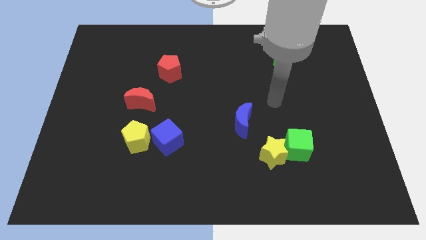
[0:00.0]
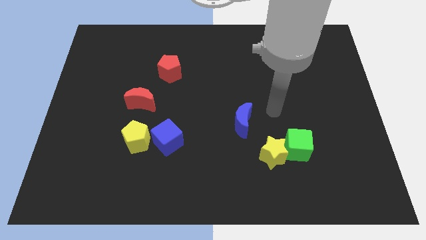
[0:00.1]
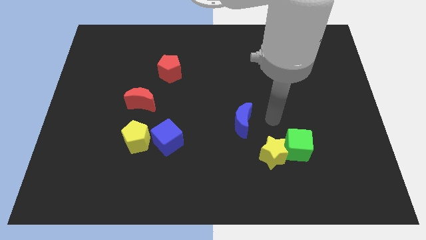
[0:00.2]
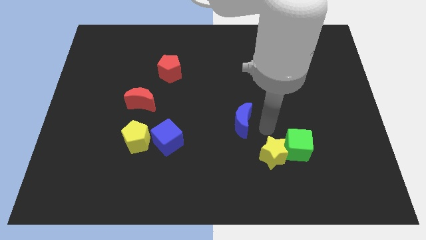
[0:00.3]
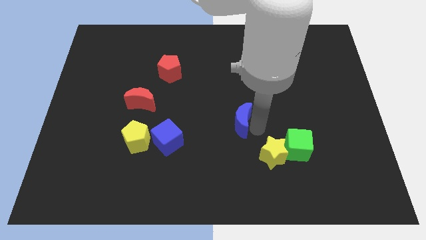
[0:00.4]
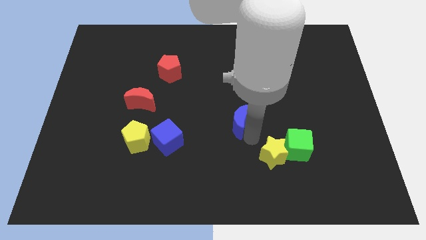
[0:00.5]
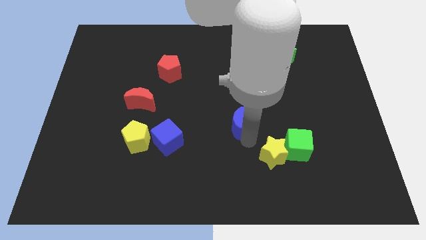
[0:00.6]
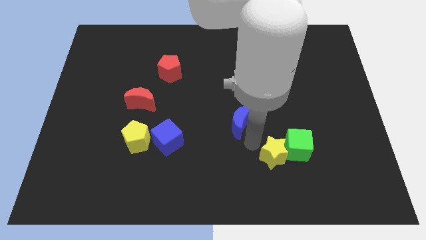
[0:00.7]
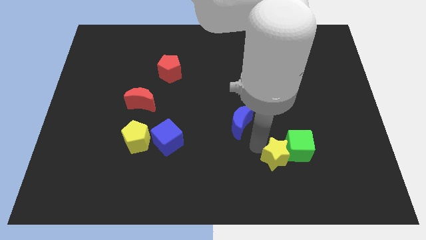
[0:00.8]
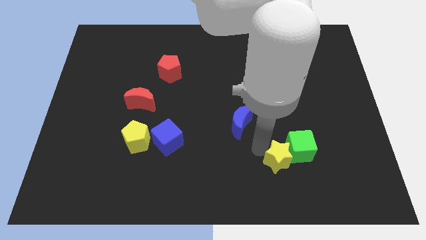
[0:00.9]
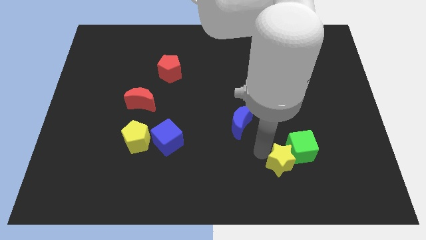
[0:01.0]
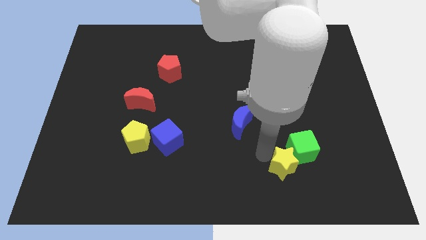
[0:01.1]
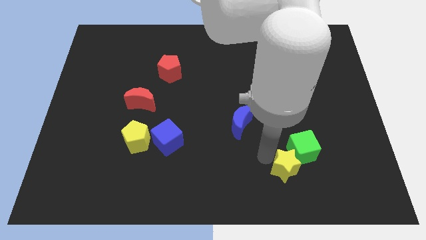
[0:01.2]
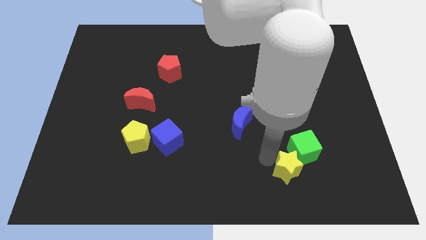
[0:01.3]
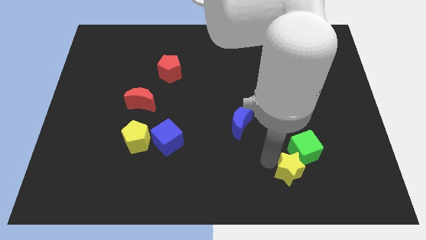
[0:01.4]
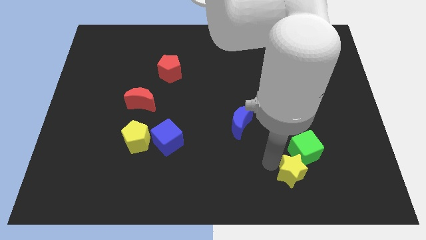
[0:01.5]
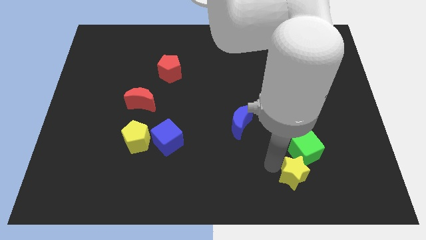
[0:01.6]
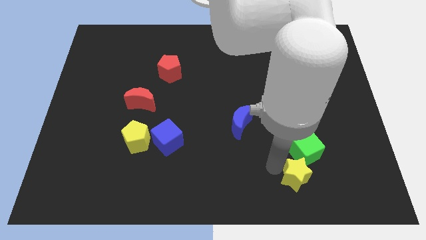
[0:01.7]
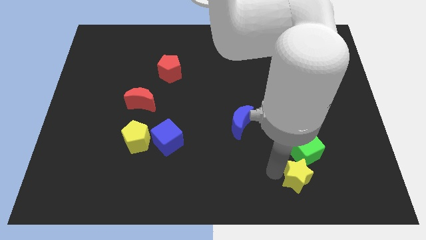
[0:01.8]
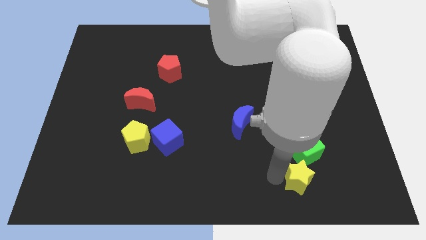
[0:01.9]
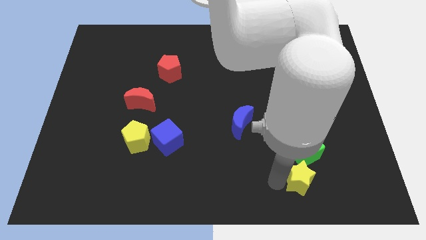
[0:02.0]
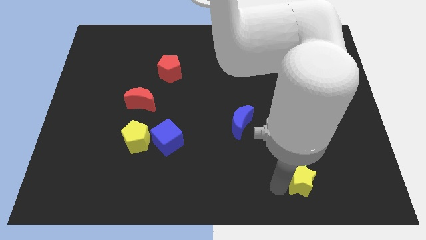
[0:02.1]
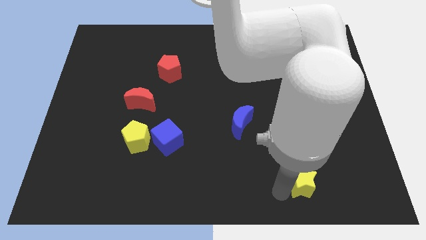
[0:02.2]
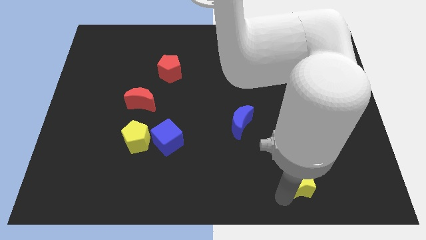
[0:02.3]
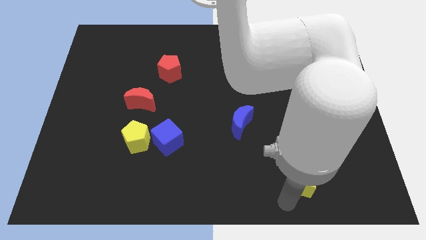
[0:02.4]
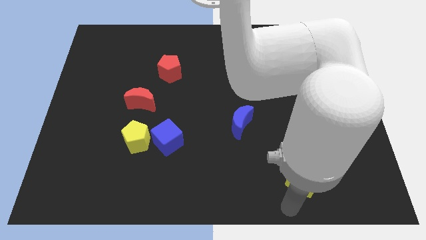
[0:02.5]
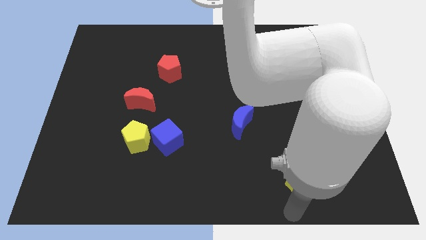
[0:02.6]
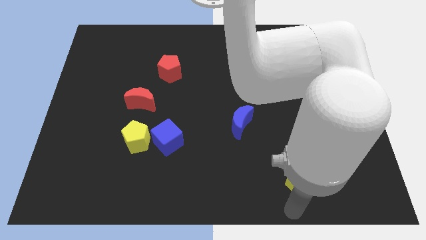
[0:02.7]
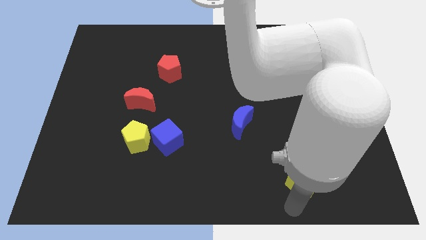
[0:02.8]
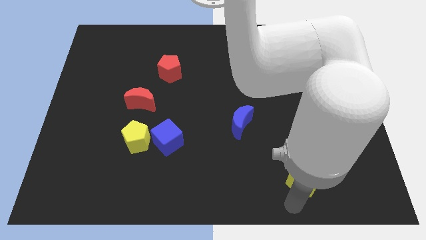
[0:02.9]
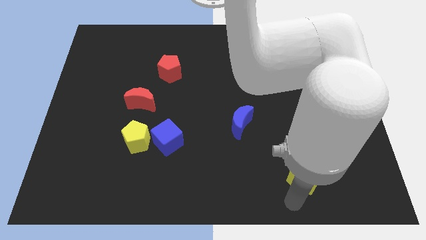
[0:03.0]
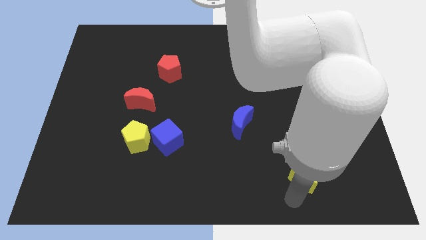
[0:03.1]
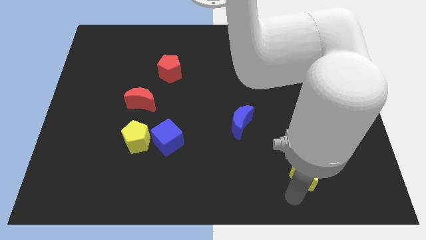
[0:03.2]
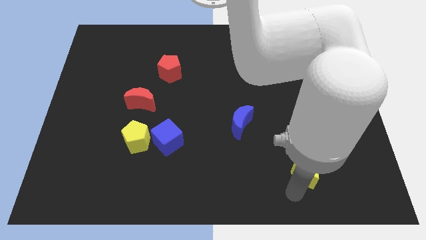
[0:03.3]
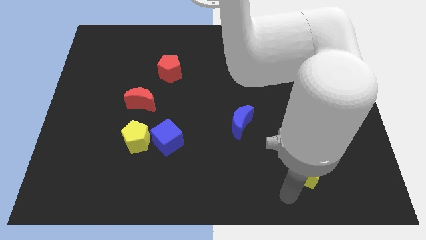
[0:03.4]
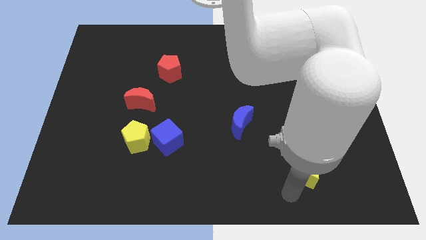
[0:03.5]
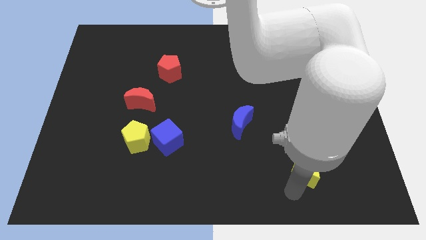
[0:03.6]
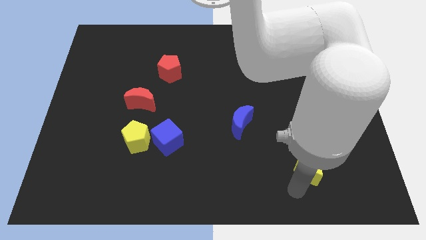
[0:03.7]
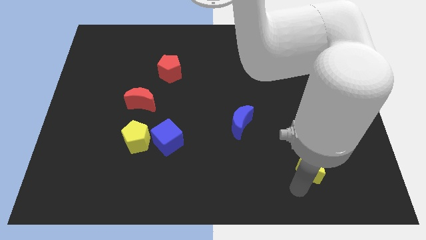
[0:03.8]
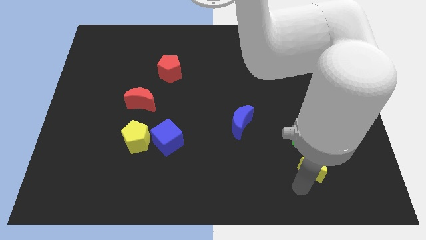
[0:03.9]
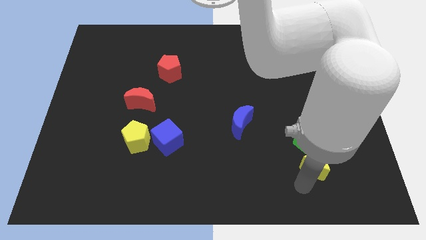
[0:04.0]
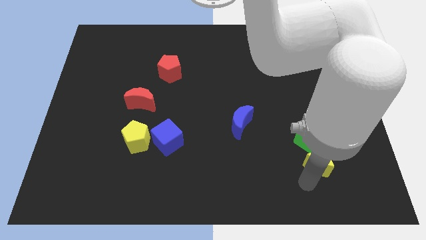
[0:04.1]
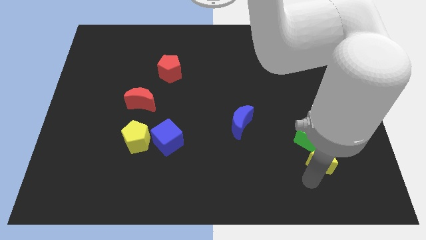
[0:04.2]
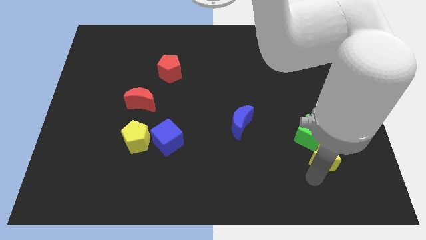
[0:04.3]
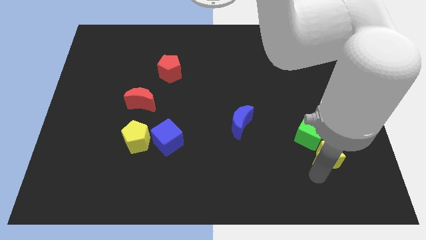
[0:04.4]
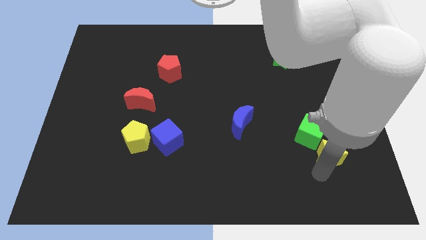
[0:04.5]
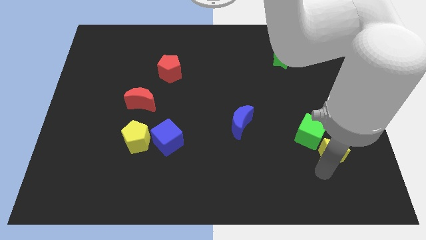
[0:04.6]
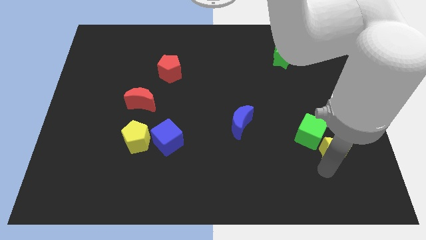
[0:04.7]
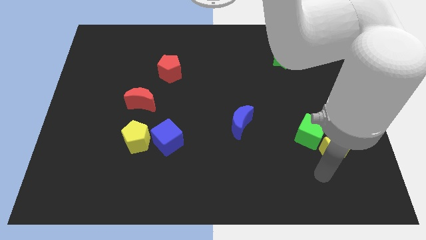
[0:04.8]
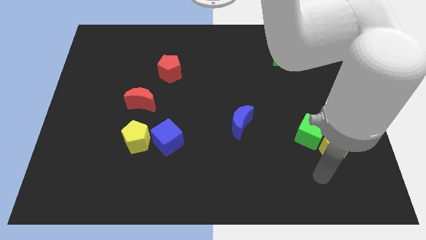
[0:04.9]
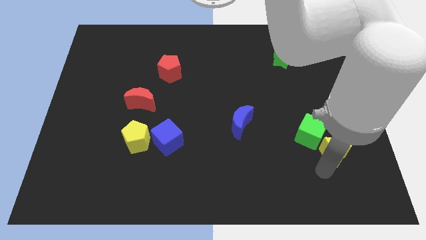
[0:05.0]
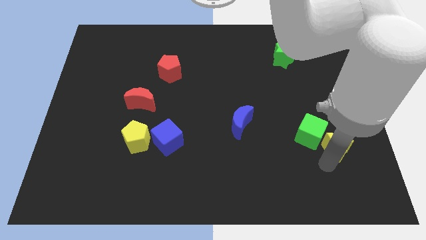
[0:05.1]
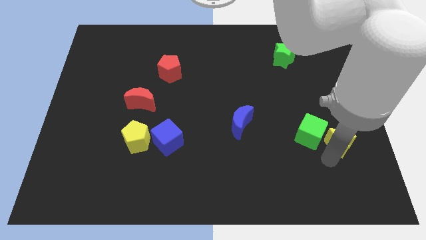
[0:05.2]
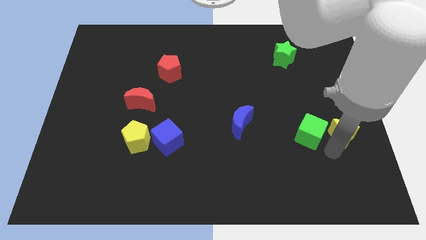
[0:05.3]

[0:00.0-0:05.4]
put the yellow star to the right side

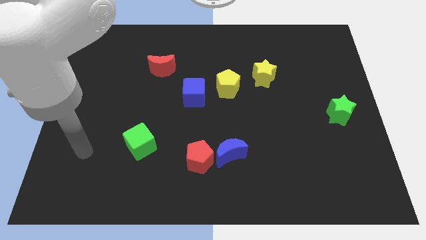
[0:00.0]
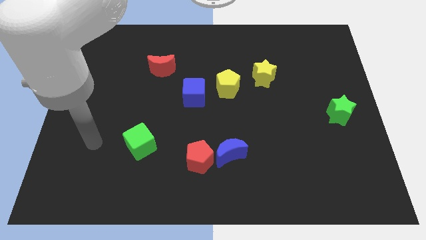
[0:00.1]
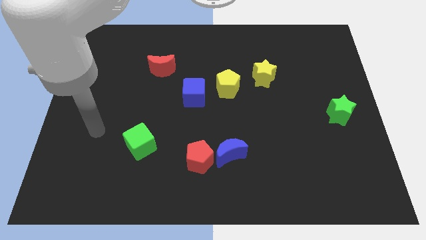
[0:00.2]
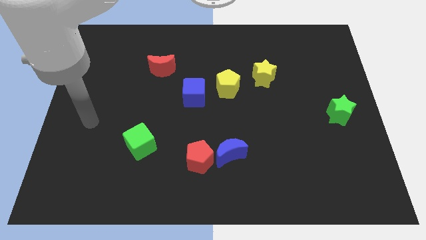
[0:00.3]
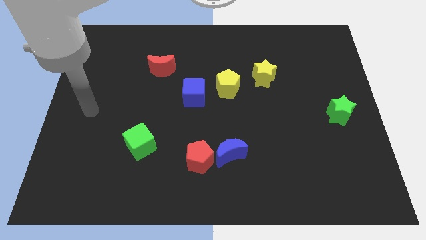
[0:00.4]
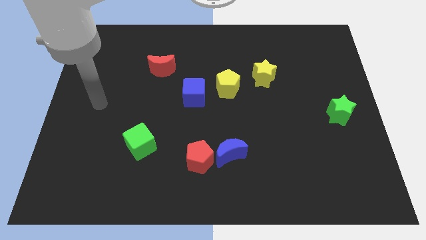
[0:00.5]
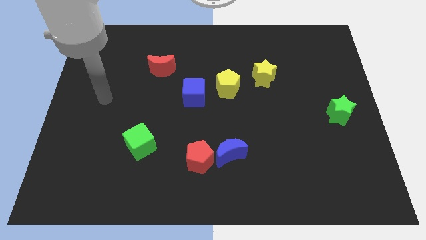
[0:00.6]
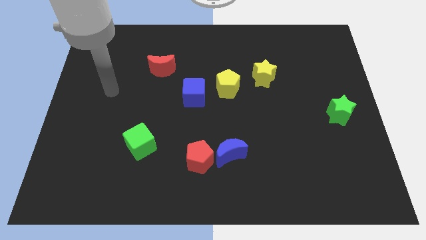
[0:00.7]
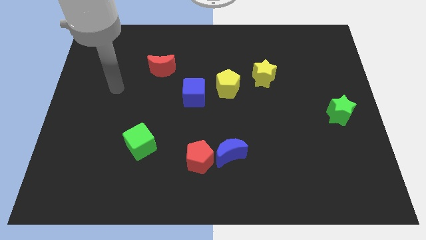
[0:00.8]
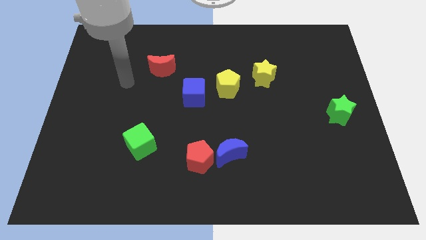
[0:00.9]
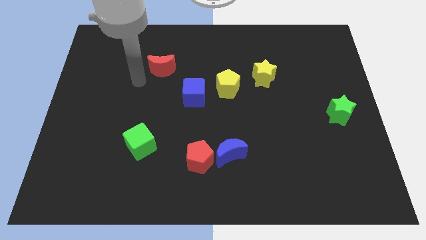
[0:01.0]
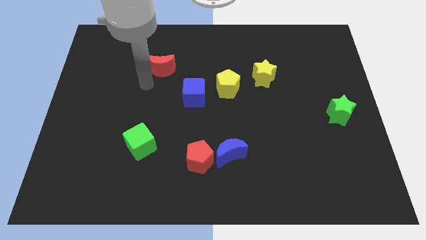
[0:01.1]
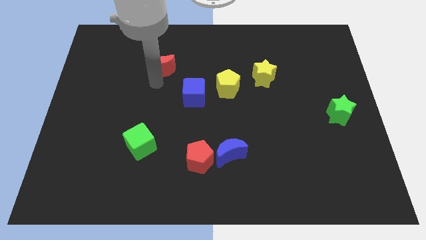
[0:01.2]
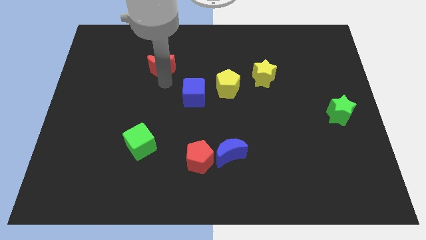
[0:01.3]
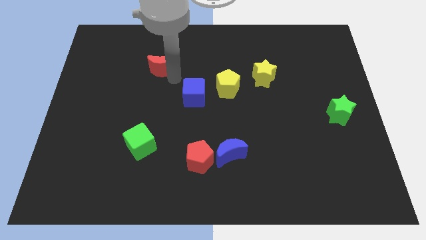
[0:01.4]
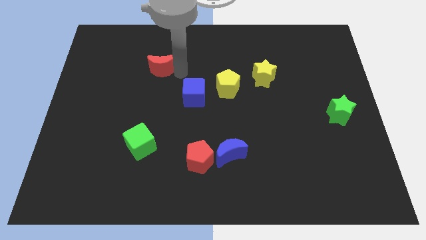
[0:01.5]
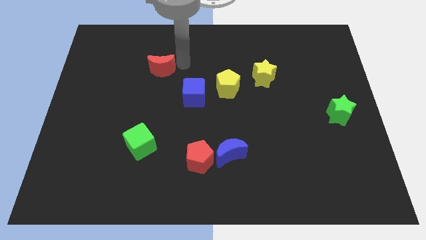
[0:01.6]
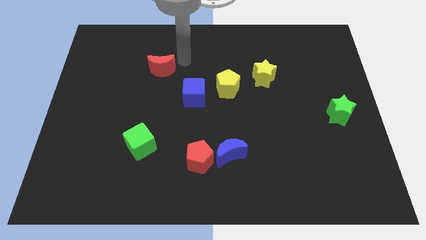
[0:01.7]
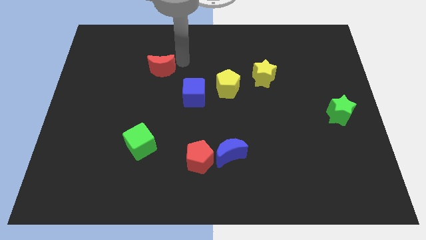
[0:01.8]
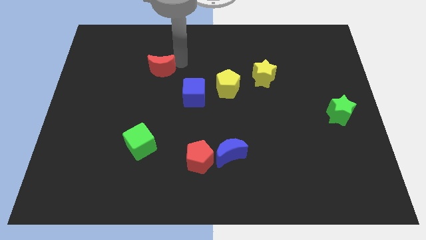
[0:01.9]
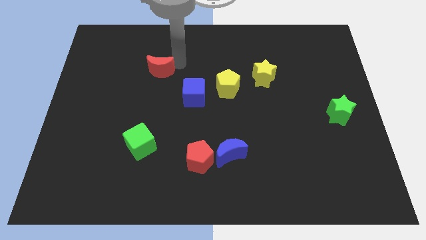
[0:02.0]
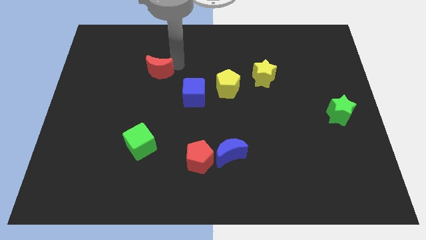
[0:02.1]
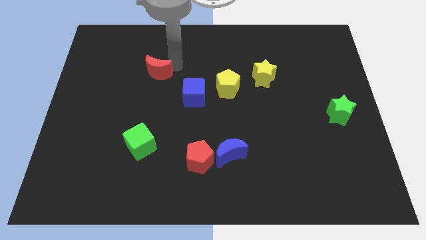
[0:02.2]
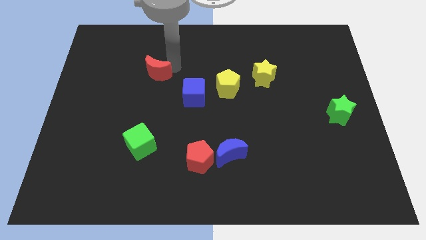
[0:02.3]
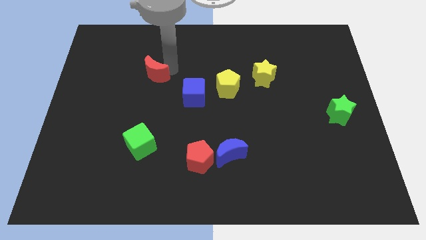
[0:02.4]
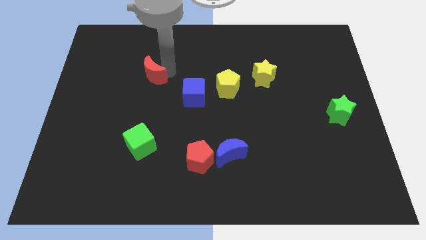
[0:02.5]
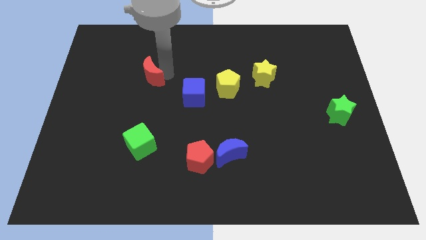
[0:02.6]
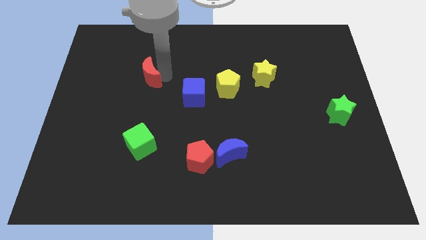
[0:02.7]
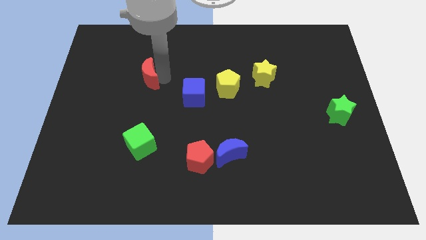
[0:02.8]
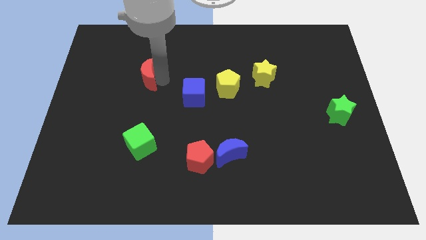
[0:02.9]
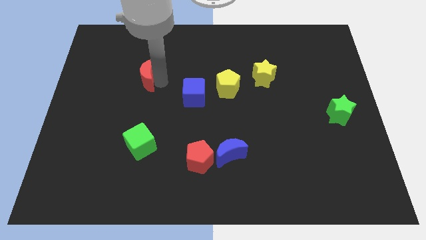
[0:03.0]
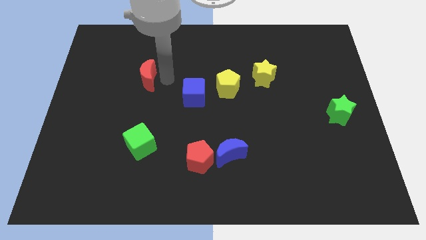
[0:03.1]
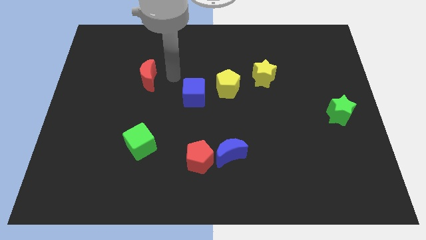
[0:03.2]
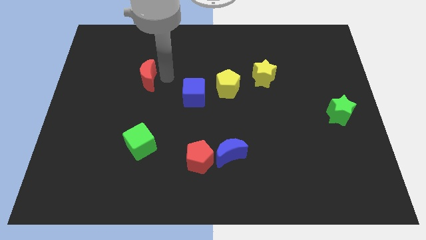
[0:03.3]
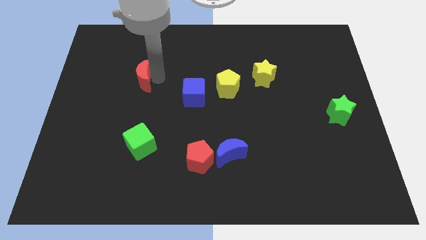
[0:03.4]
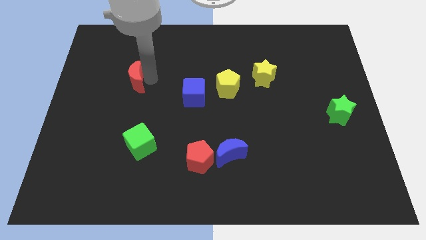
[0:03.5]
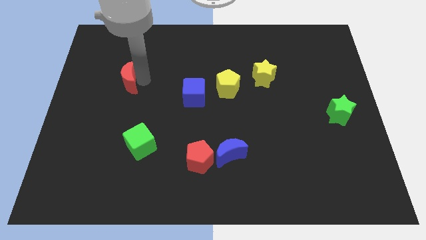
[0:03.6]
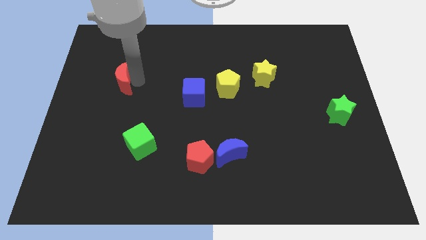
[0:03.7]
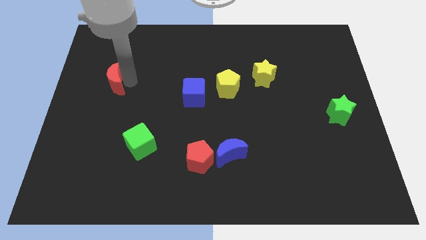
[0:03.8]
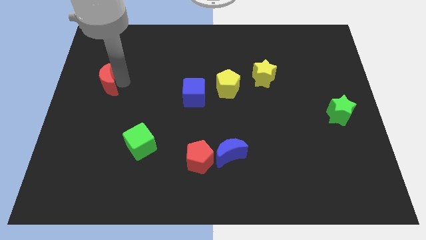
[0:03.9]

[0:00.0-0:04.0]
push the red moon to the center left
